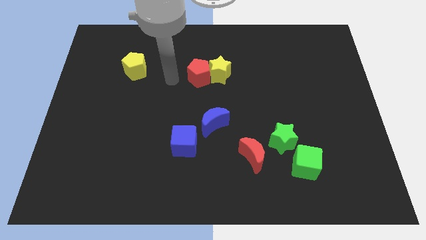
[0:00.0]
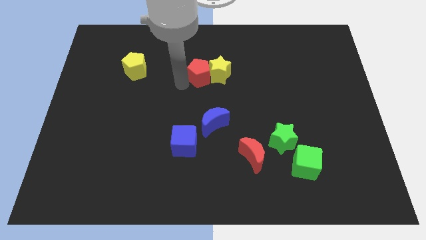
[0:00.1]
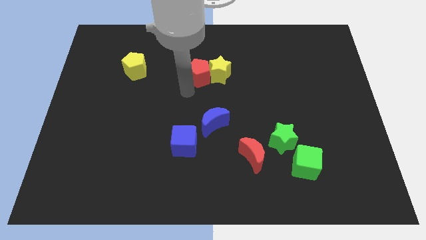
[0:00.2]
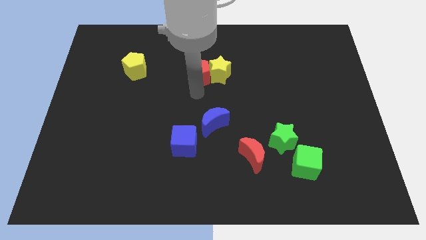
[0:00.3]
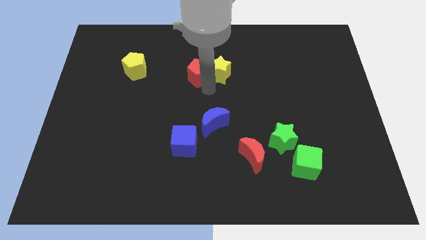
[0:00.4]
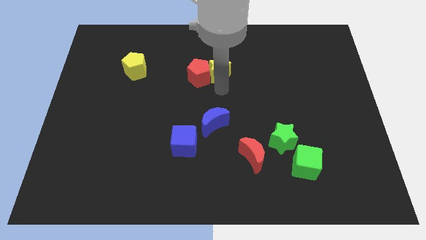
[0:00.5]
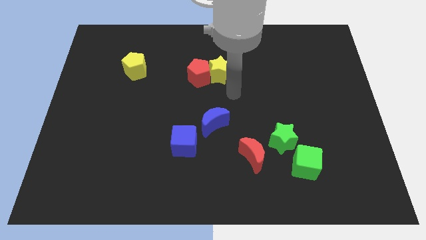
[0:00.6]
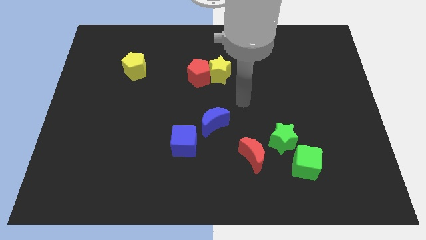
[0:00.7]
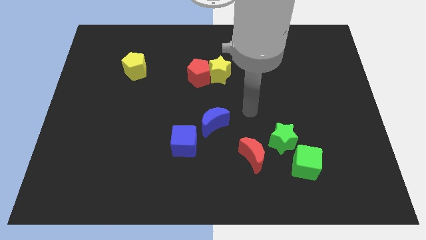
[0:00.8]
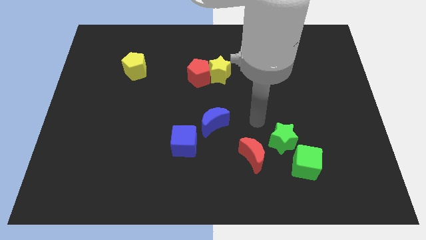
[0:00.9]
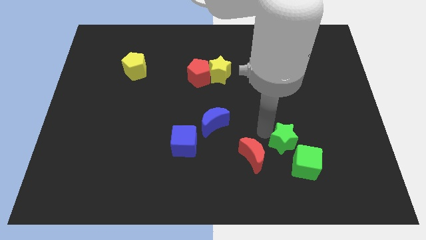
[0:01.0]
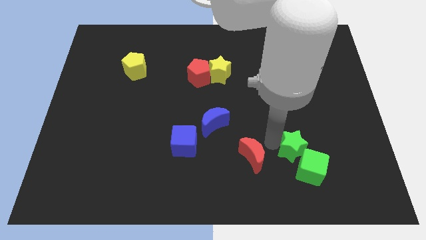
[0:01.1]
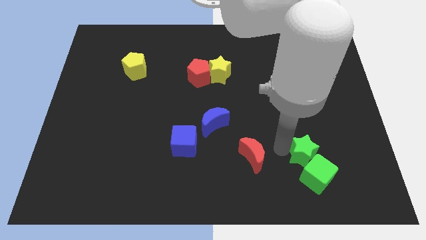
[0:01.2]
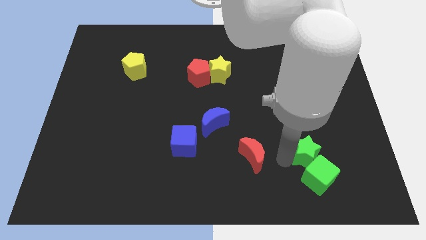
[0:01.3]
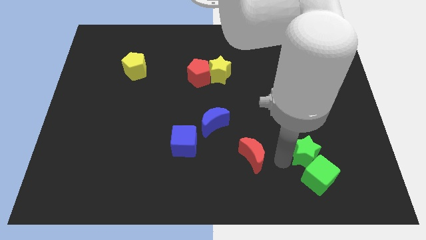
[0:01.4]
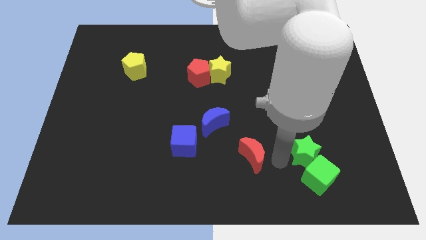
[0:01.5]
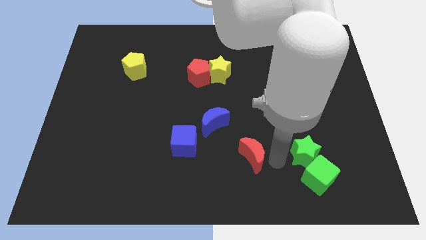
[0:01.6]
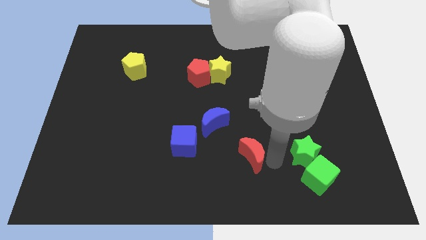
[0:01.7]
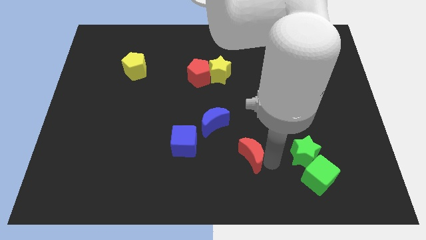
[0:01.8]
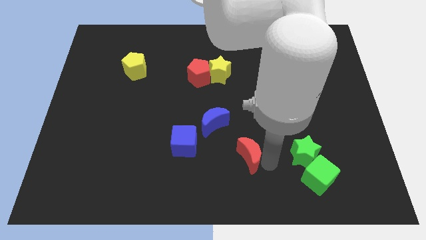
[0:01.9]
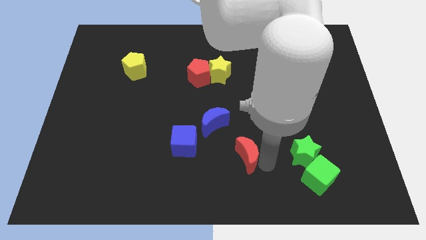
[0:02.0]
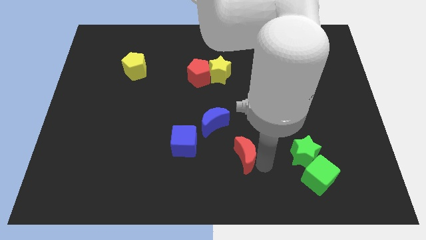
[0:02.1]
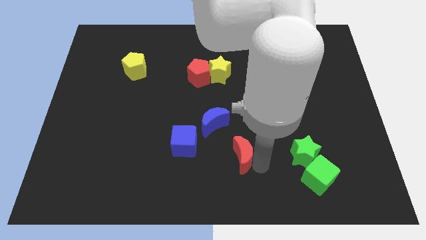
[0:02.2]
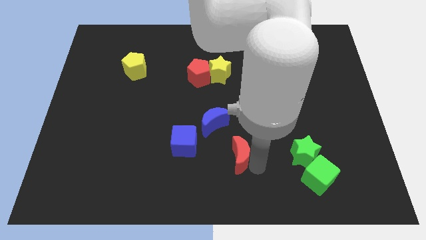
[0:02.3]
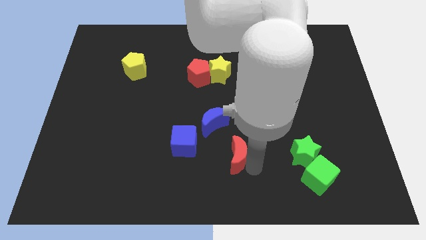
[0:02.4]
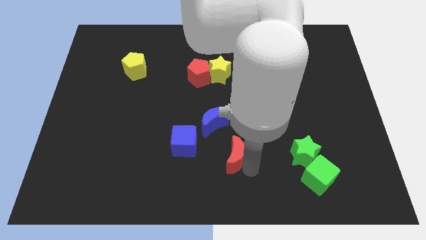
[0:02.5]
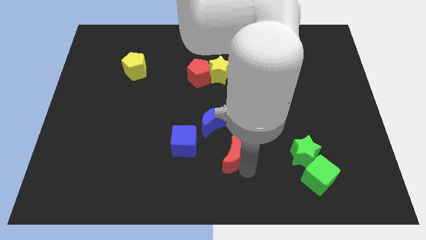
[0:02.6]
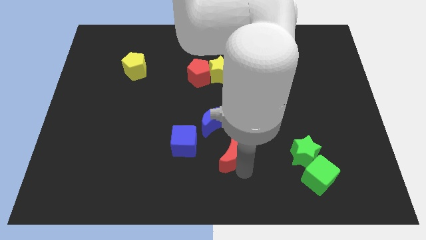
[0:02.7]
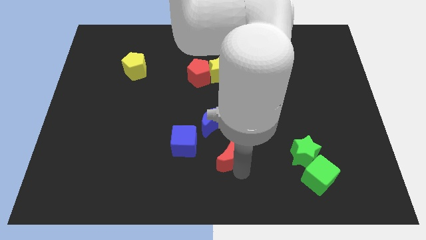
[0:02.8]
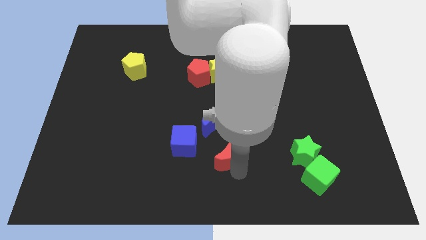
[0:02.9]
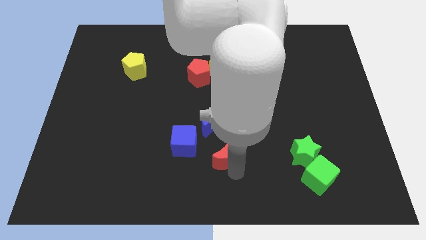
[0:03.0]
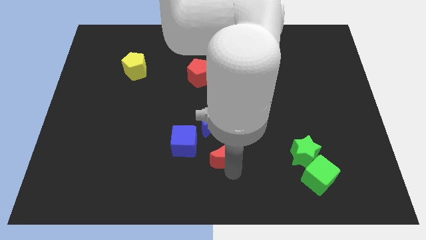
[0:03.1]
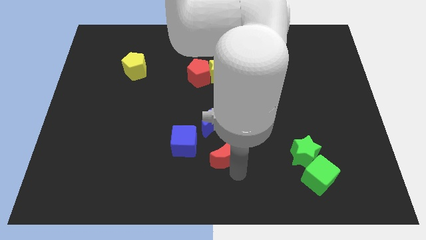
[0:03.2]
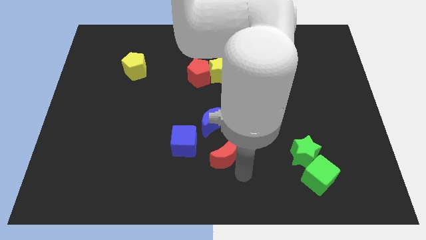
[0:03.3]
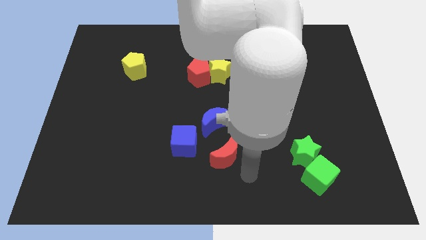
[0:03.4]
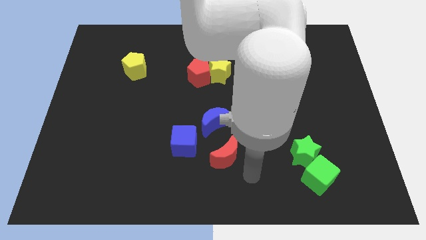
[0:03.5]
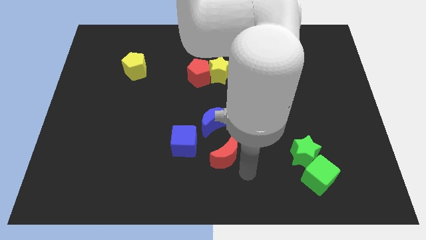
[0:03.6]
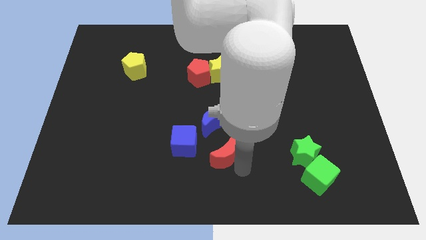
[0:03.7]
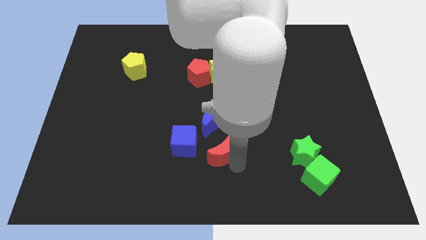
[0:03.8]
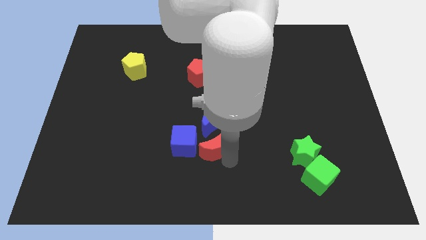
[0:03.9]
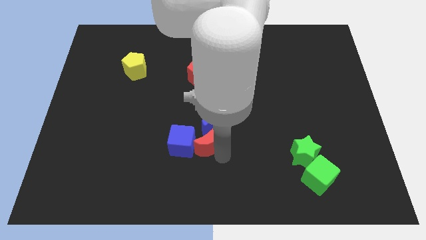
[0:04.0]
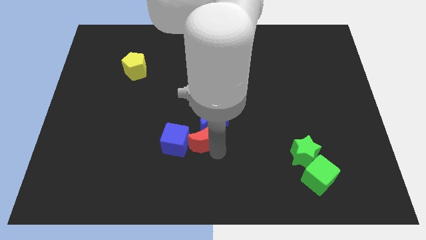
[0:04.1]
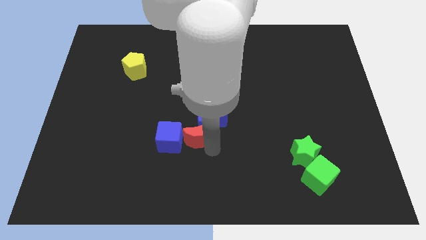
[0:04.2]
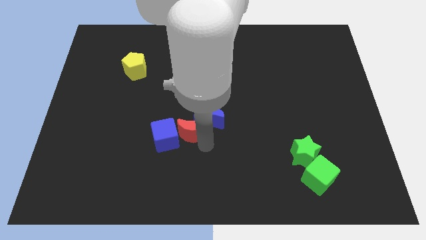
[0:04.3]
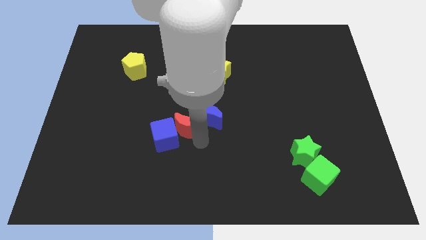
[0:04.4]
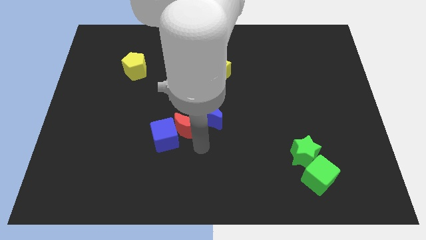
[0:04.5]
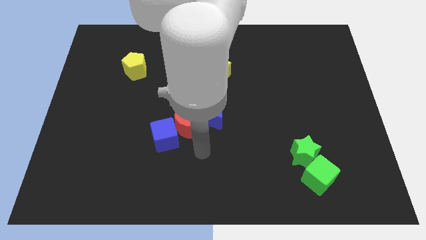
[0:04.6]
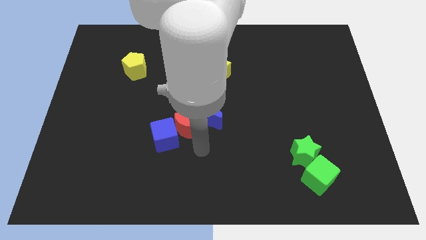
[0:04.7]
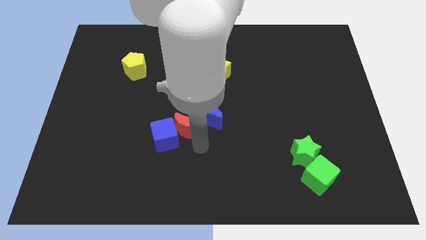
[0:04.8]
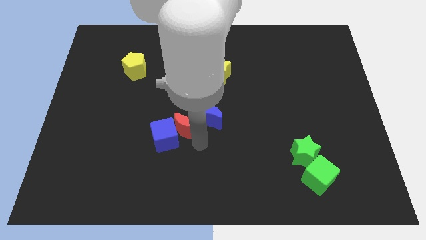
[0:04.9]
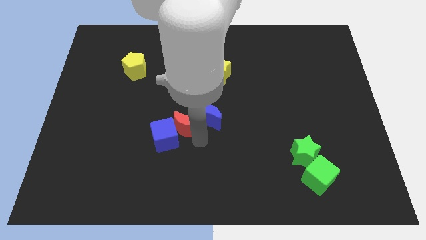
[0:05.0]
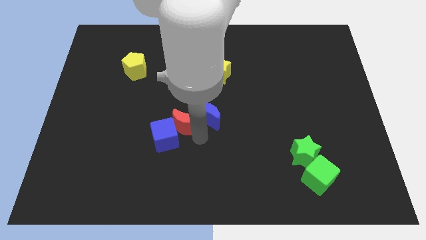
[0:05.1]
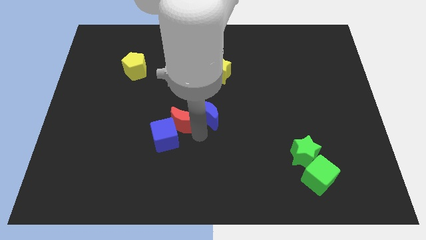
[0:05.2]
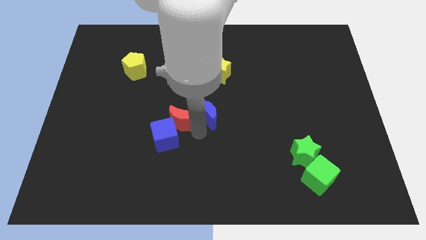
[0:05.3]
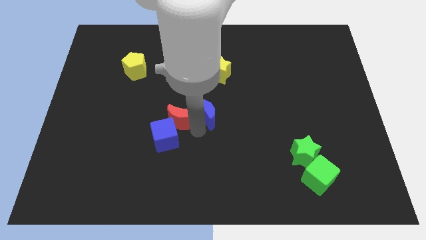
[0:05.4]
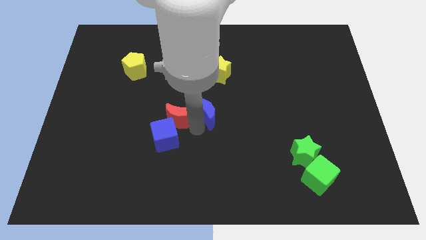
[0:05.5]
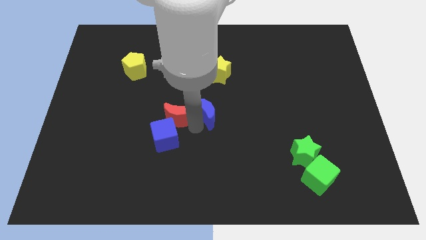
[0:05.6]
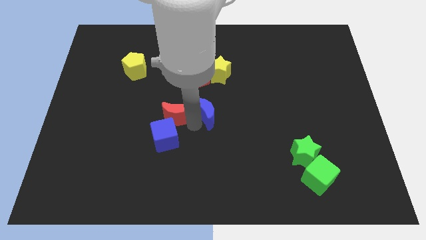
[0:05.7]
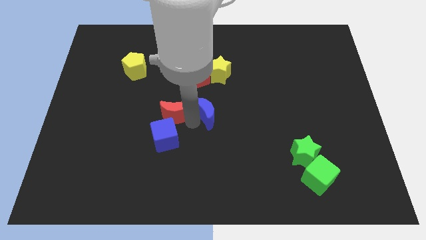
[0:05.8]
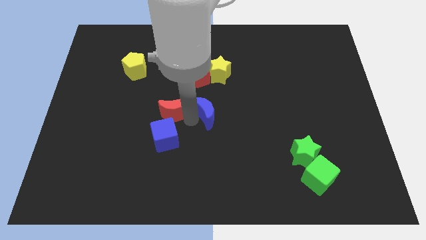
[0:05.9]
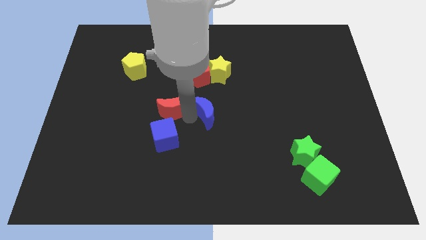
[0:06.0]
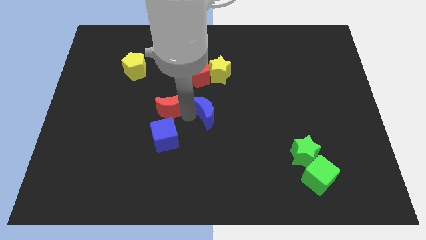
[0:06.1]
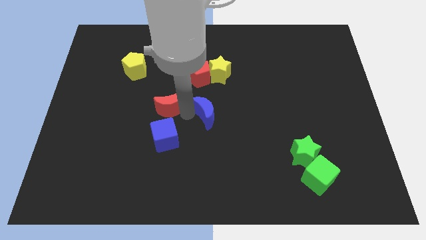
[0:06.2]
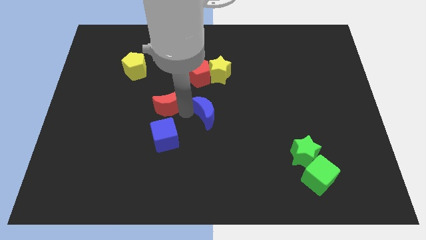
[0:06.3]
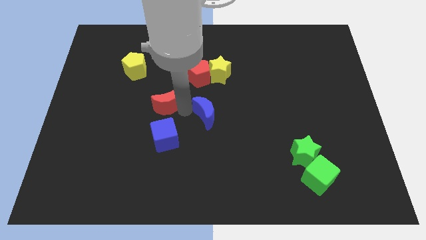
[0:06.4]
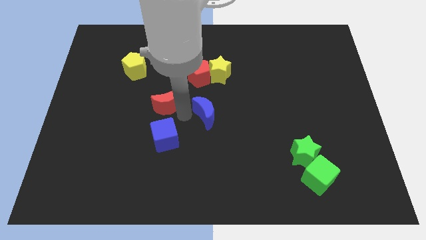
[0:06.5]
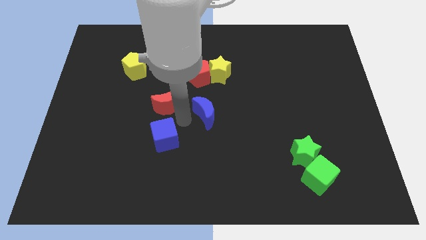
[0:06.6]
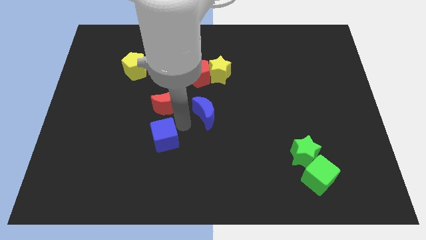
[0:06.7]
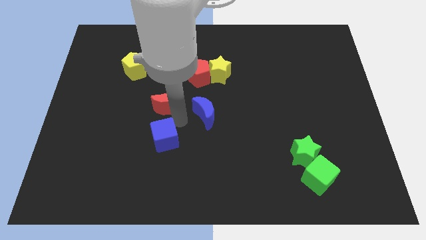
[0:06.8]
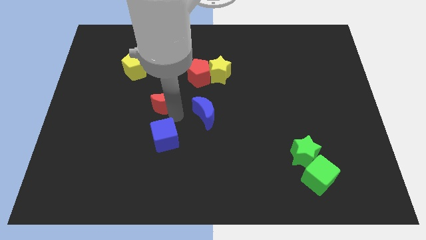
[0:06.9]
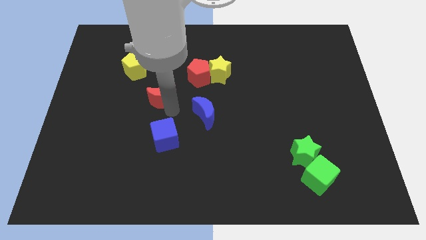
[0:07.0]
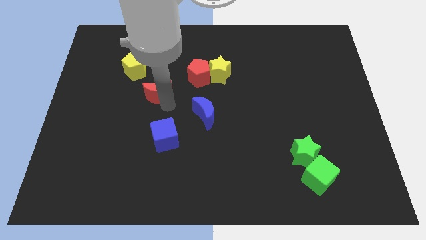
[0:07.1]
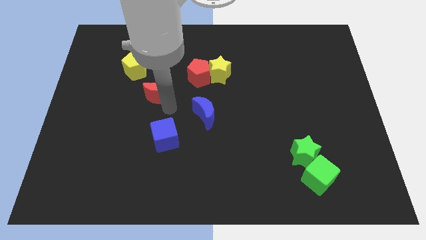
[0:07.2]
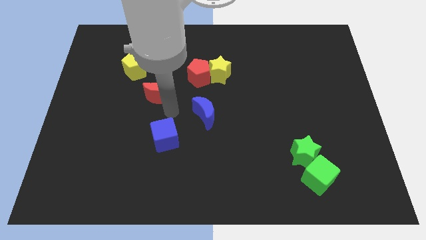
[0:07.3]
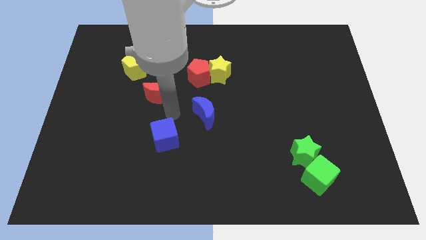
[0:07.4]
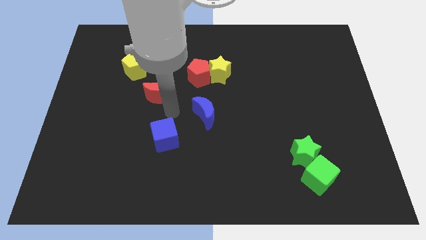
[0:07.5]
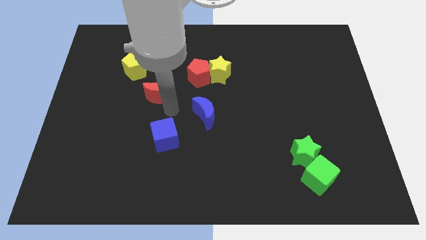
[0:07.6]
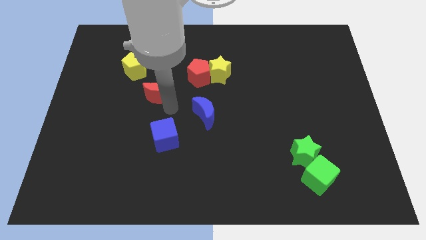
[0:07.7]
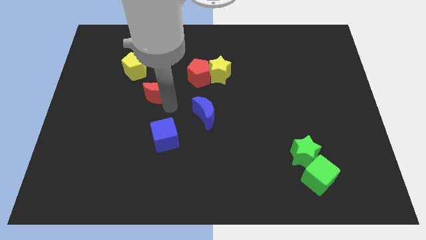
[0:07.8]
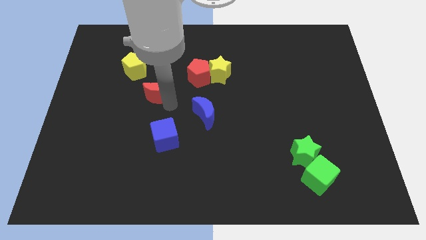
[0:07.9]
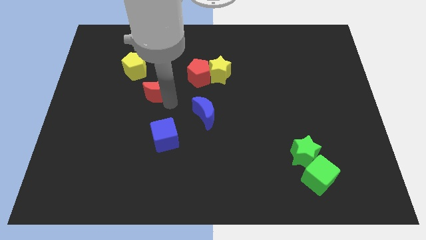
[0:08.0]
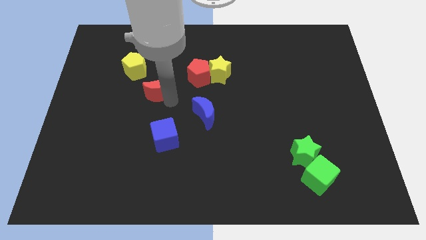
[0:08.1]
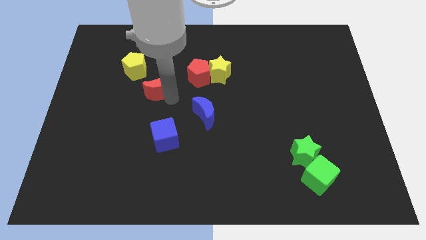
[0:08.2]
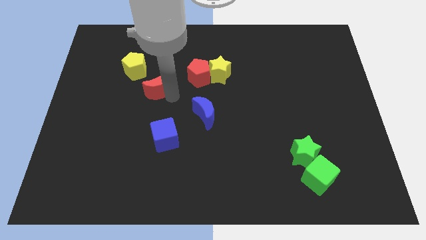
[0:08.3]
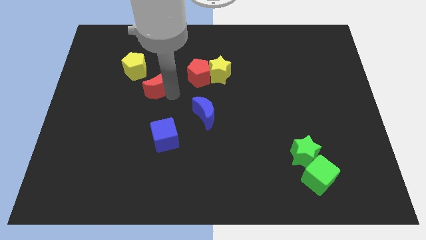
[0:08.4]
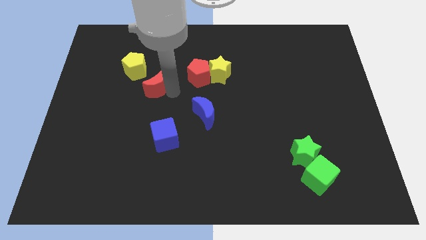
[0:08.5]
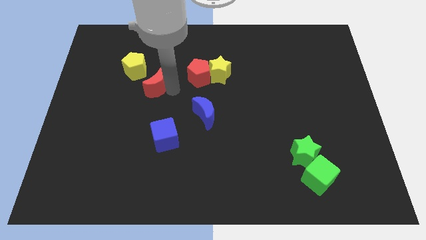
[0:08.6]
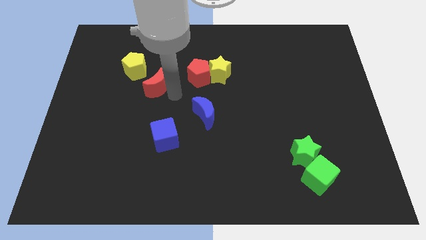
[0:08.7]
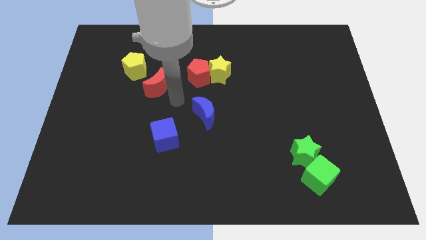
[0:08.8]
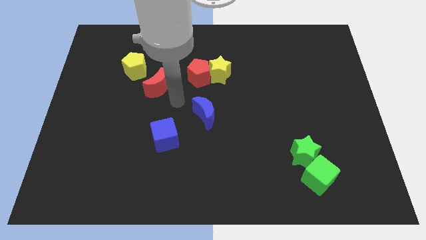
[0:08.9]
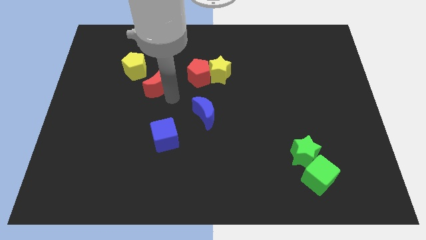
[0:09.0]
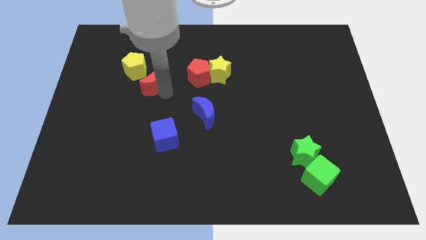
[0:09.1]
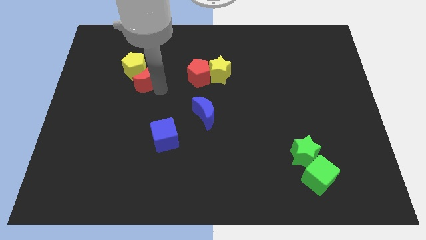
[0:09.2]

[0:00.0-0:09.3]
put the red moon close to the yellow pentagon
